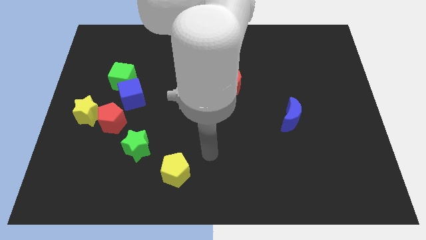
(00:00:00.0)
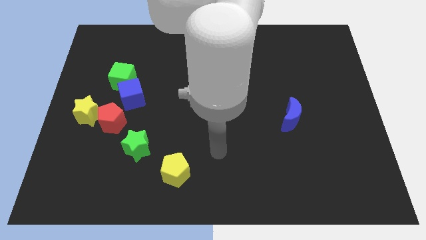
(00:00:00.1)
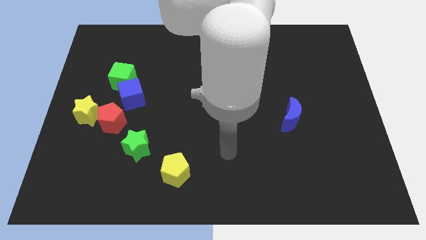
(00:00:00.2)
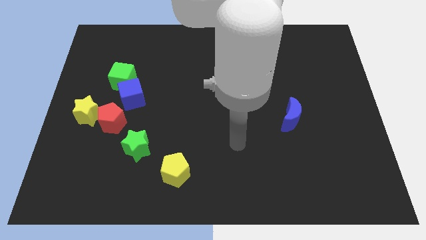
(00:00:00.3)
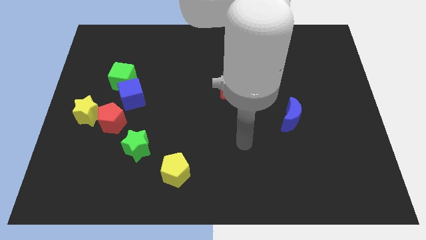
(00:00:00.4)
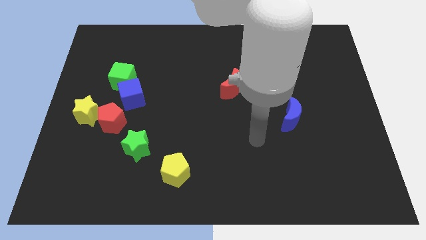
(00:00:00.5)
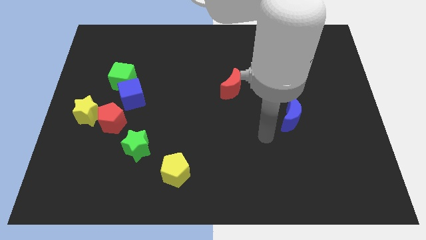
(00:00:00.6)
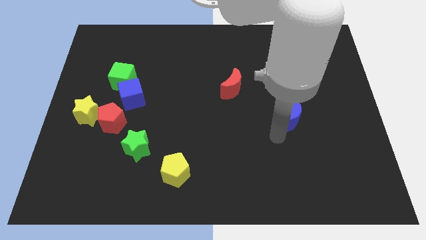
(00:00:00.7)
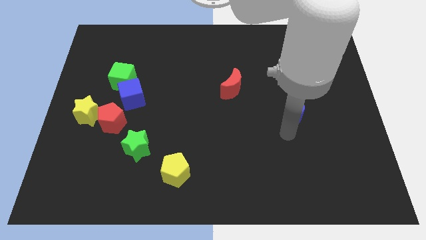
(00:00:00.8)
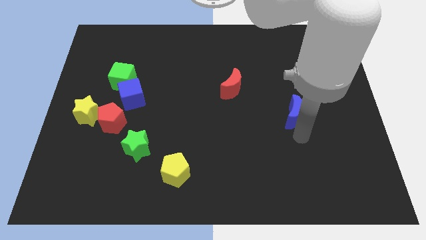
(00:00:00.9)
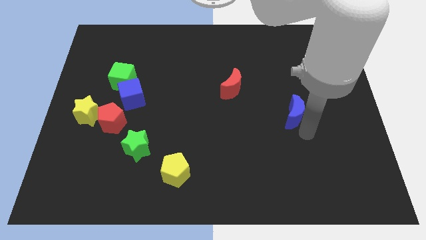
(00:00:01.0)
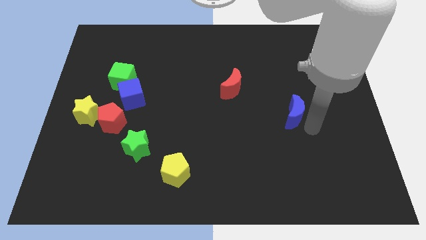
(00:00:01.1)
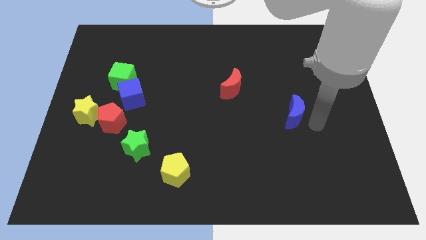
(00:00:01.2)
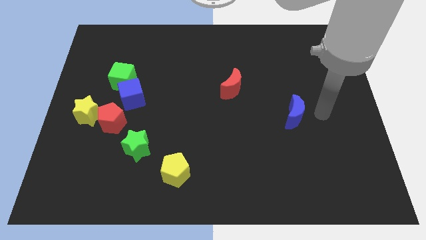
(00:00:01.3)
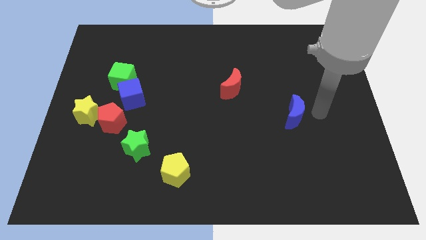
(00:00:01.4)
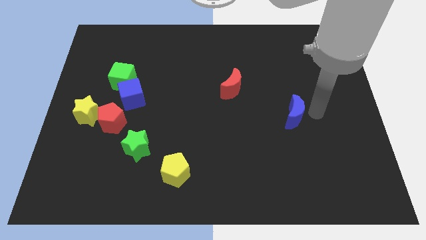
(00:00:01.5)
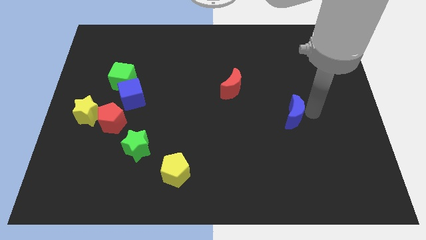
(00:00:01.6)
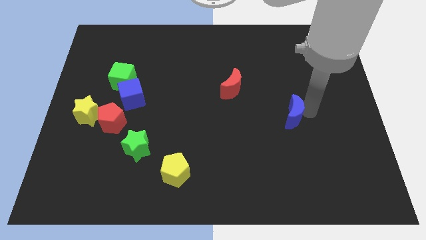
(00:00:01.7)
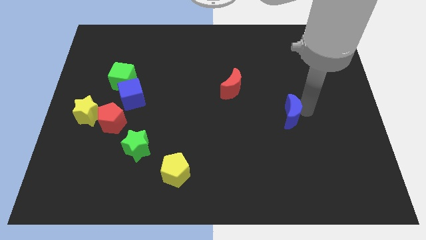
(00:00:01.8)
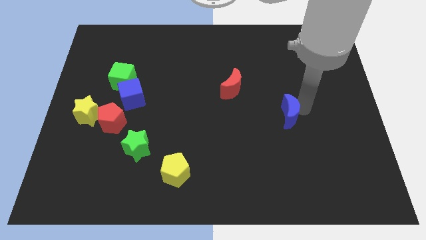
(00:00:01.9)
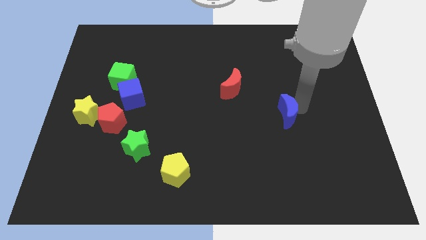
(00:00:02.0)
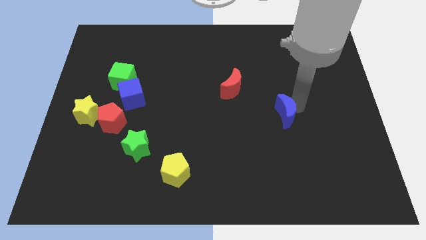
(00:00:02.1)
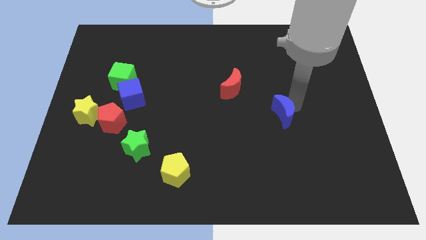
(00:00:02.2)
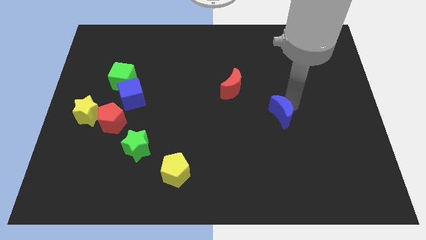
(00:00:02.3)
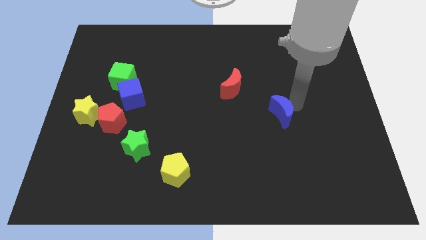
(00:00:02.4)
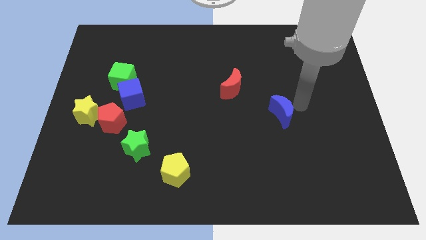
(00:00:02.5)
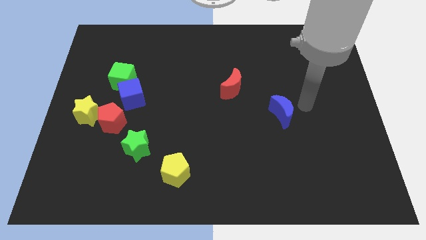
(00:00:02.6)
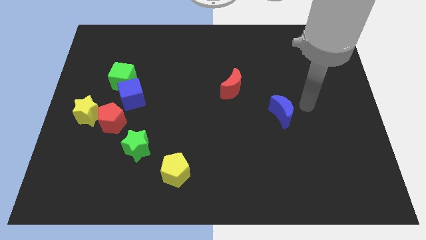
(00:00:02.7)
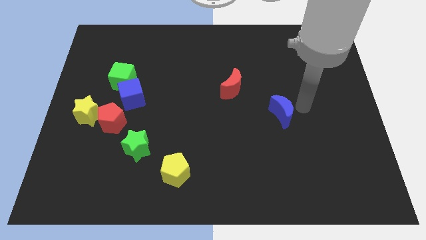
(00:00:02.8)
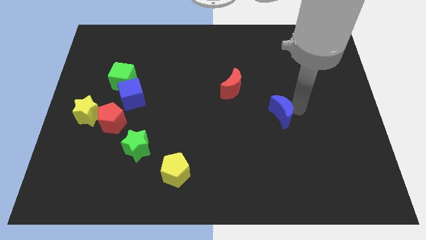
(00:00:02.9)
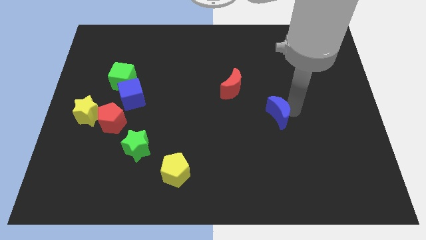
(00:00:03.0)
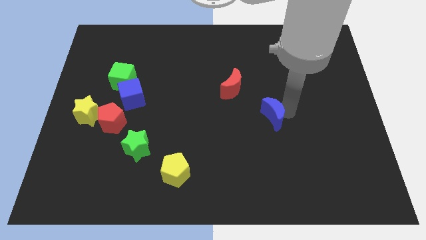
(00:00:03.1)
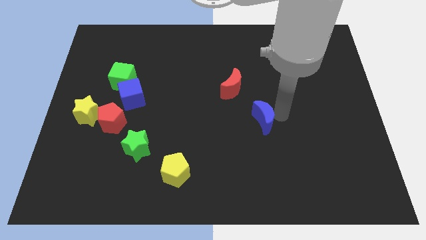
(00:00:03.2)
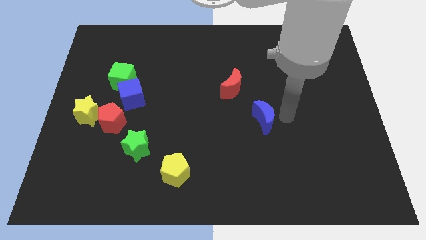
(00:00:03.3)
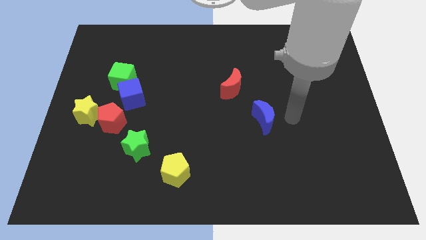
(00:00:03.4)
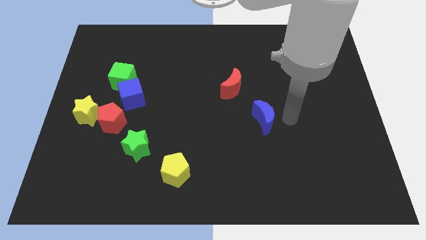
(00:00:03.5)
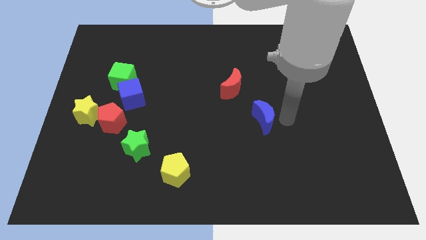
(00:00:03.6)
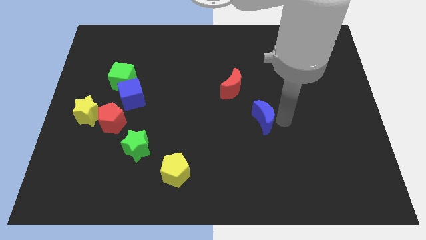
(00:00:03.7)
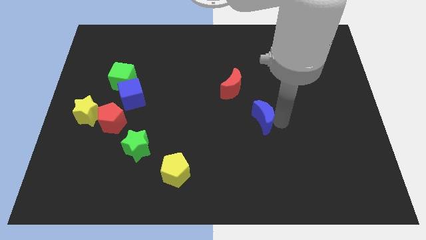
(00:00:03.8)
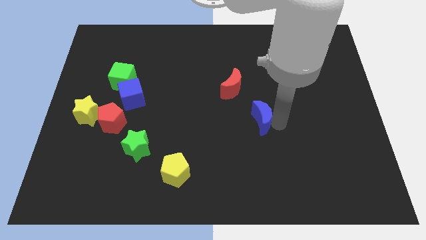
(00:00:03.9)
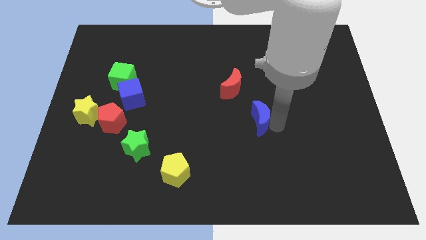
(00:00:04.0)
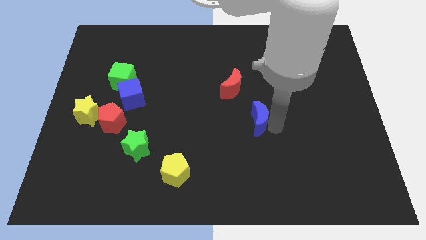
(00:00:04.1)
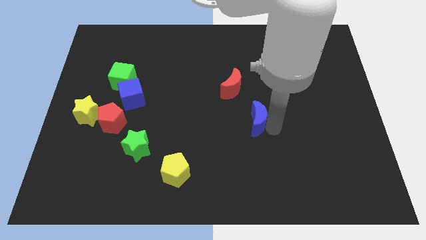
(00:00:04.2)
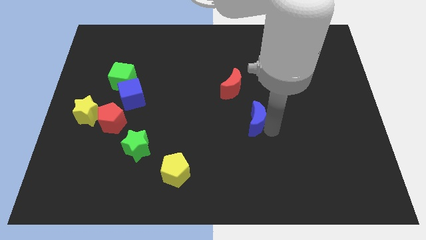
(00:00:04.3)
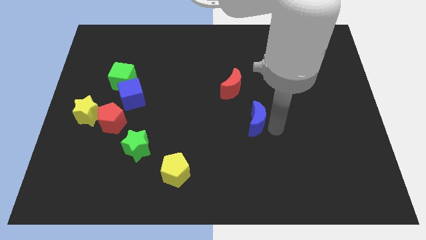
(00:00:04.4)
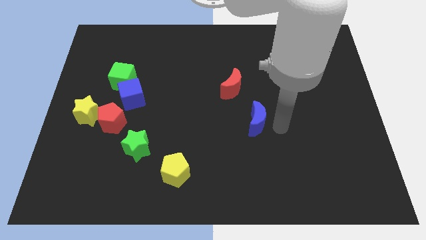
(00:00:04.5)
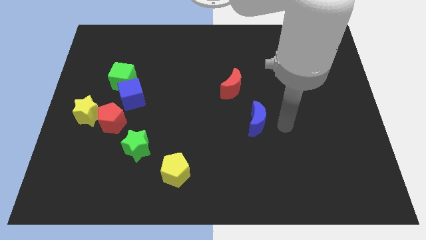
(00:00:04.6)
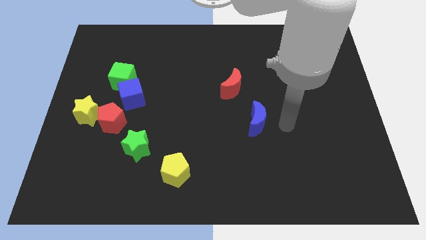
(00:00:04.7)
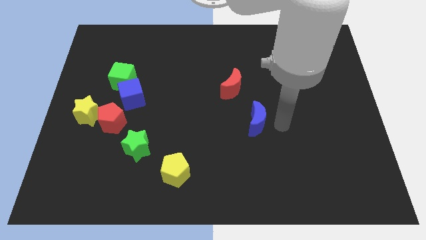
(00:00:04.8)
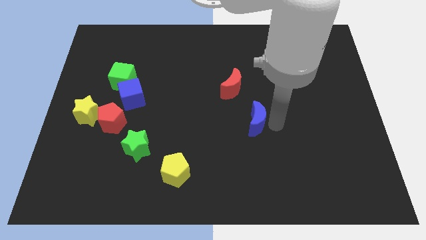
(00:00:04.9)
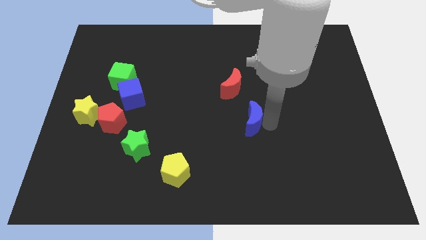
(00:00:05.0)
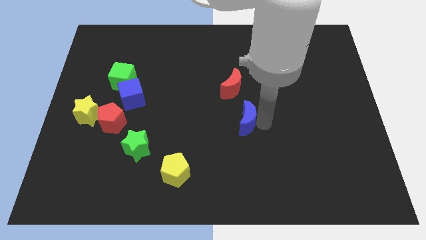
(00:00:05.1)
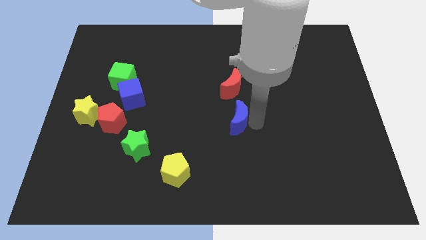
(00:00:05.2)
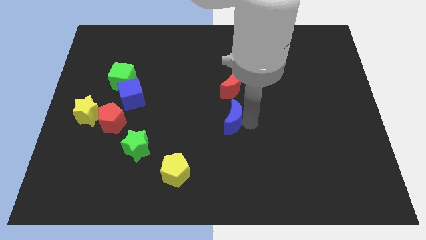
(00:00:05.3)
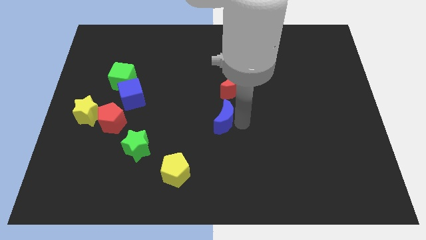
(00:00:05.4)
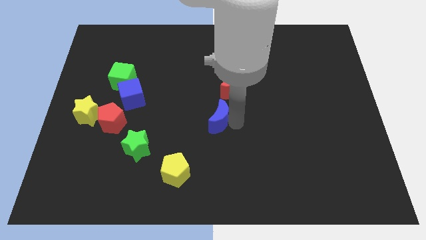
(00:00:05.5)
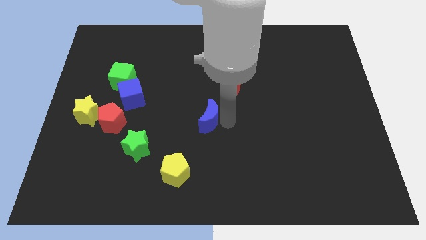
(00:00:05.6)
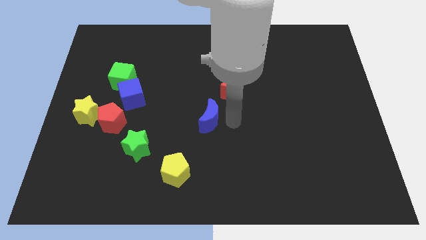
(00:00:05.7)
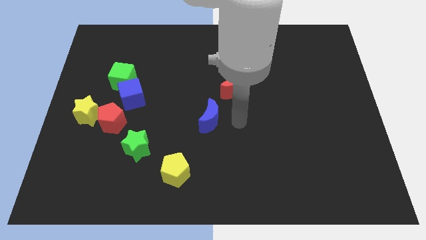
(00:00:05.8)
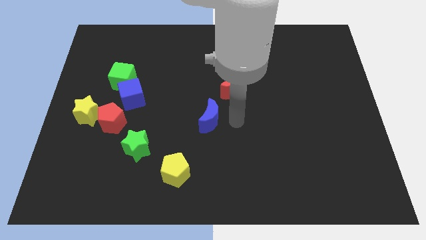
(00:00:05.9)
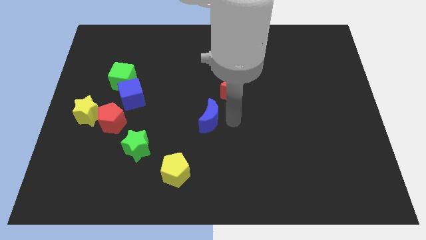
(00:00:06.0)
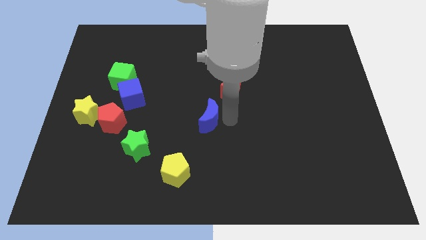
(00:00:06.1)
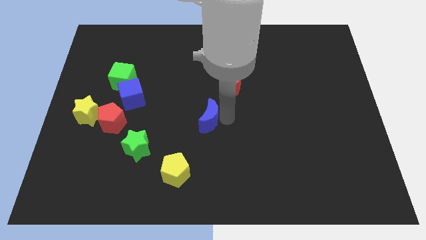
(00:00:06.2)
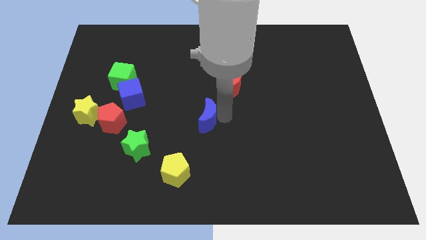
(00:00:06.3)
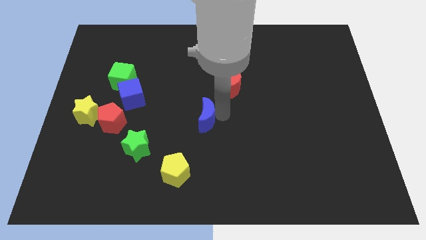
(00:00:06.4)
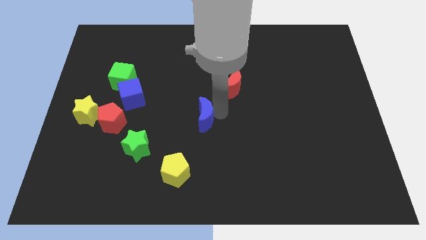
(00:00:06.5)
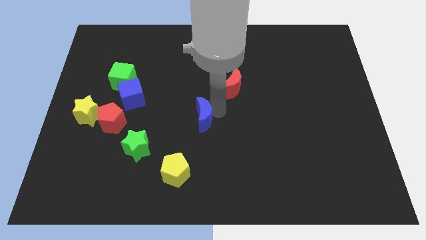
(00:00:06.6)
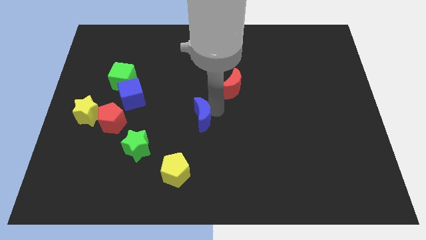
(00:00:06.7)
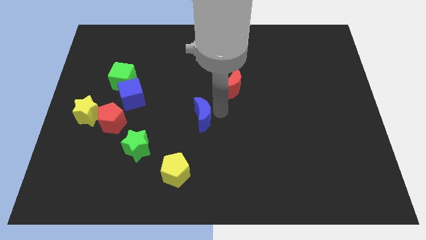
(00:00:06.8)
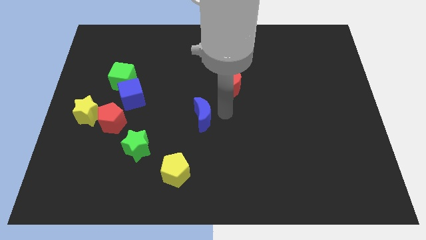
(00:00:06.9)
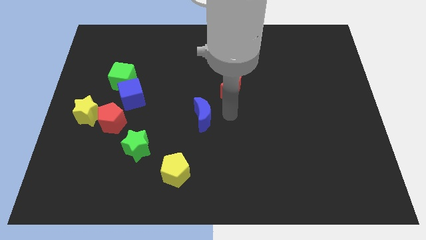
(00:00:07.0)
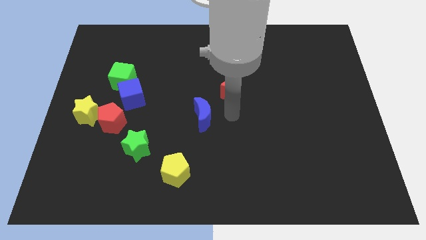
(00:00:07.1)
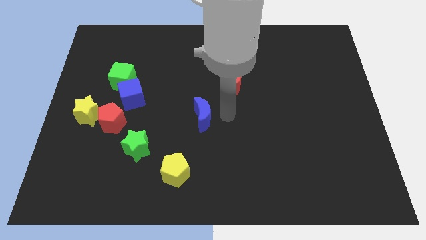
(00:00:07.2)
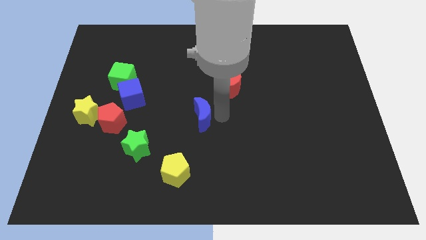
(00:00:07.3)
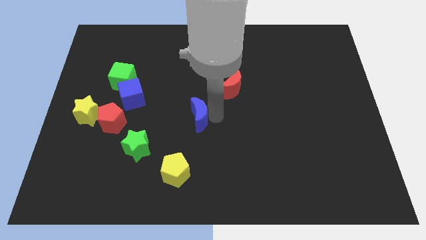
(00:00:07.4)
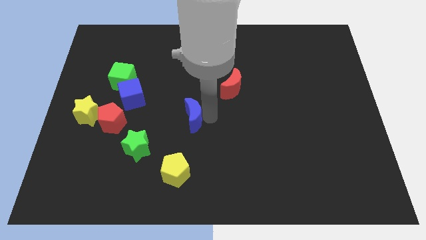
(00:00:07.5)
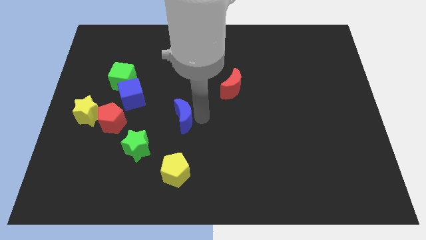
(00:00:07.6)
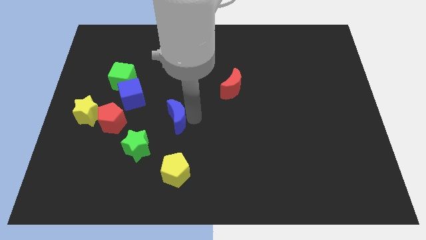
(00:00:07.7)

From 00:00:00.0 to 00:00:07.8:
push the blue moon to the right of the red pentagon
